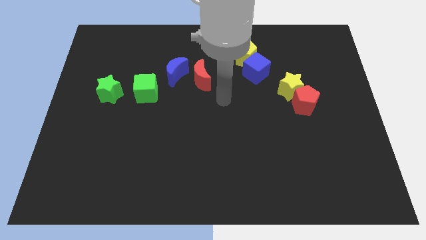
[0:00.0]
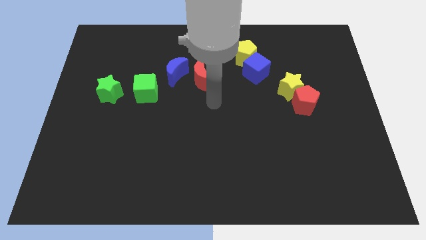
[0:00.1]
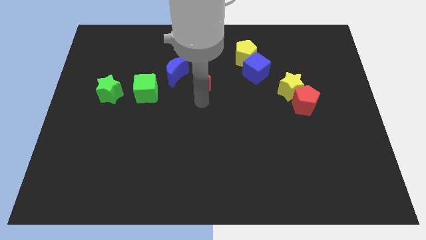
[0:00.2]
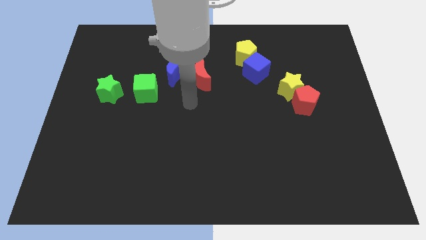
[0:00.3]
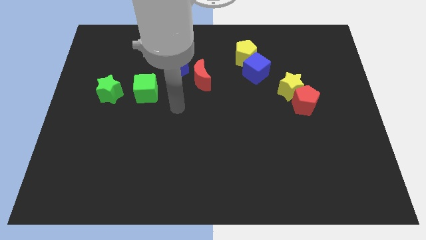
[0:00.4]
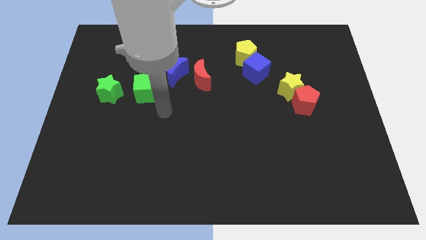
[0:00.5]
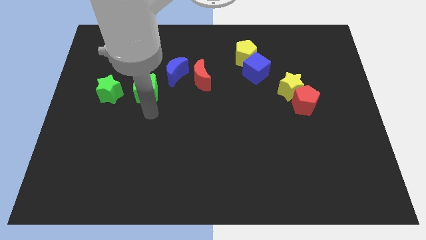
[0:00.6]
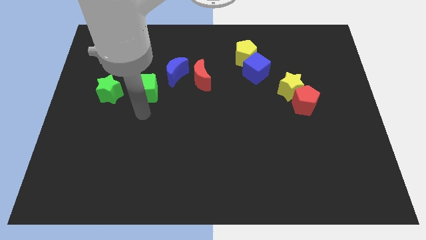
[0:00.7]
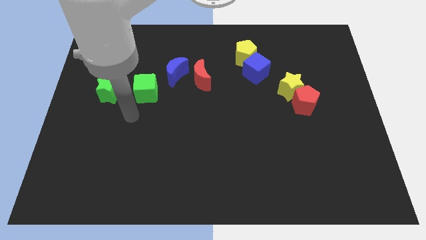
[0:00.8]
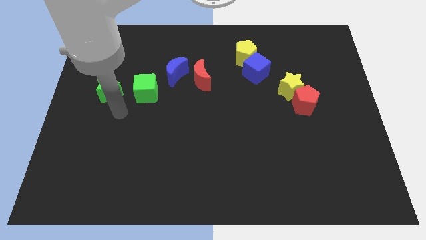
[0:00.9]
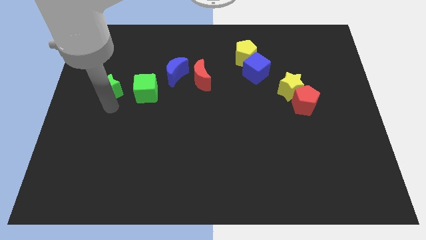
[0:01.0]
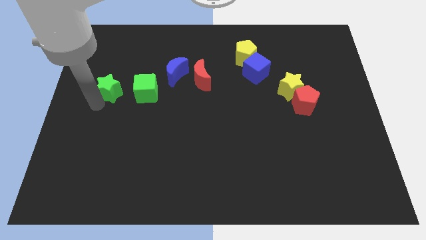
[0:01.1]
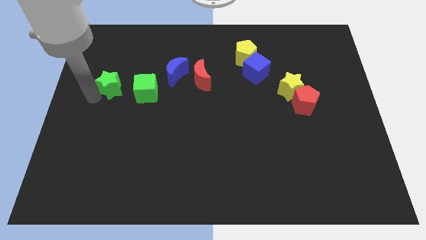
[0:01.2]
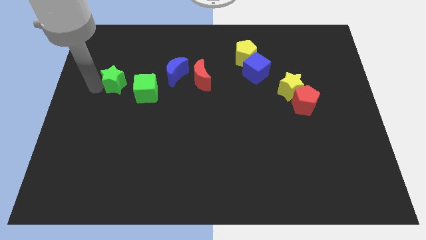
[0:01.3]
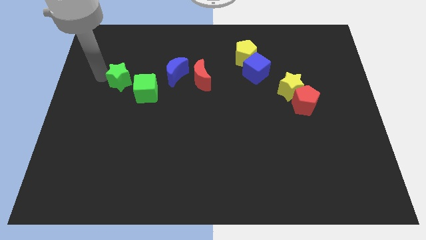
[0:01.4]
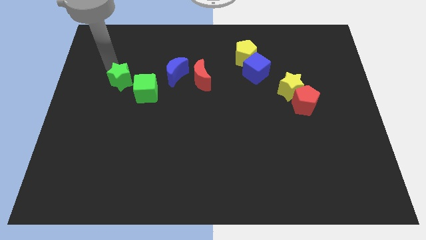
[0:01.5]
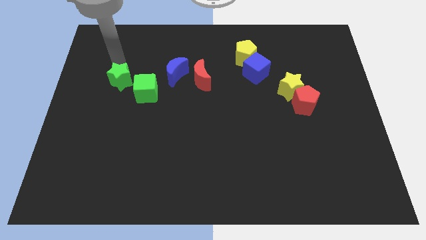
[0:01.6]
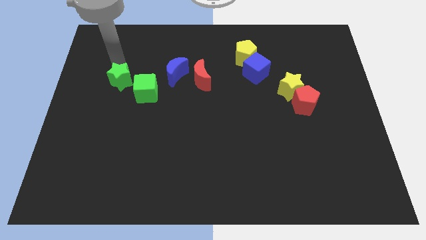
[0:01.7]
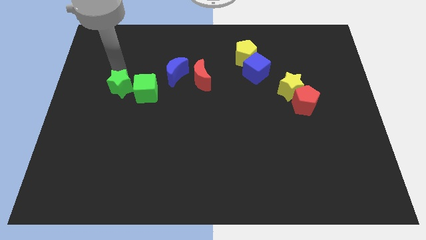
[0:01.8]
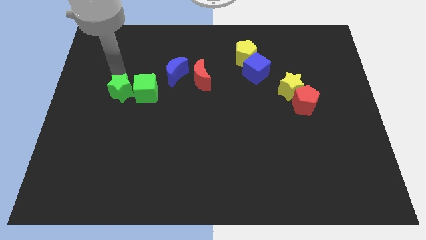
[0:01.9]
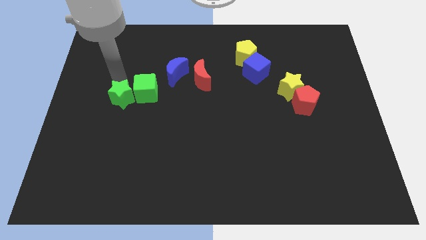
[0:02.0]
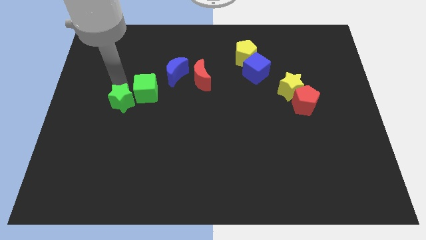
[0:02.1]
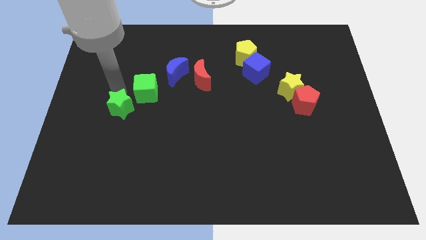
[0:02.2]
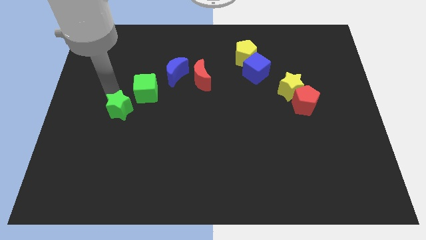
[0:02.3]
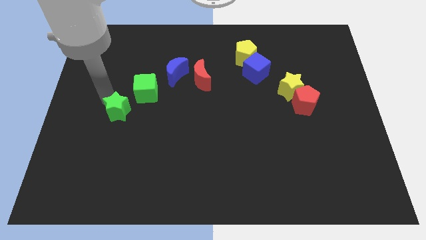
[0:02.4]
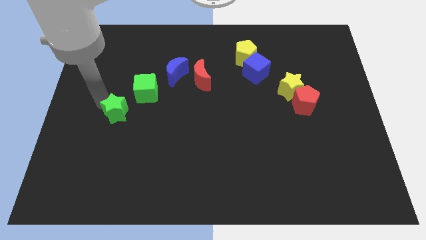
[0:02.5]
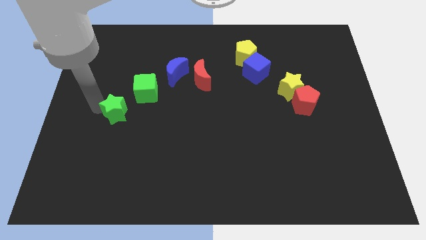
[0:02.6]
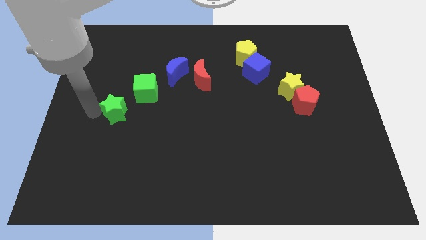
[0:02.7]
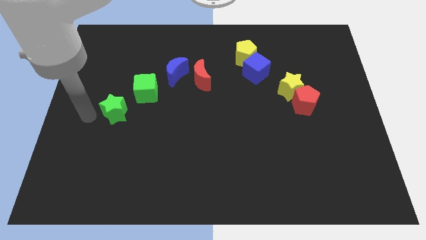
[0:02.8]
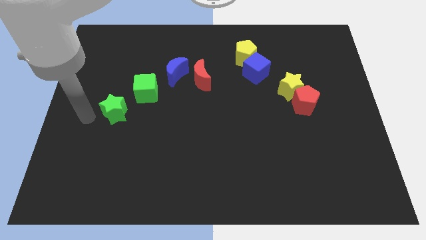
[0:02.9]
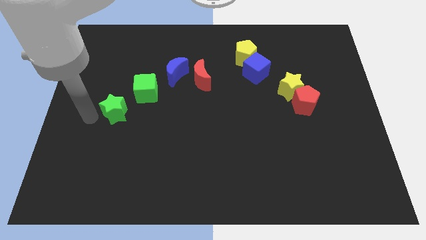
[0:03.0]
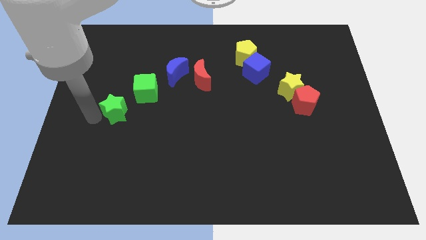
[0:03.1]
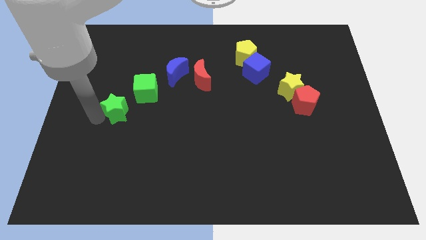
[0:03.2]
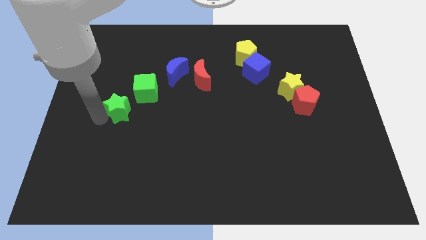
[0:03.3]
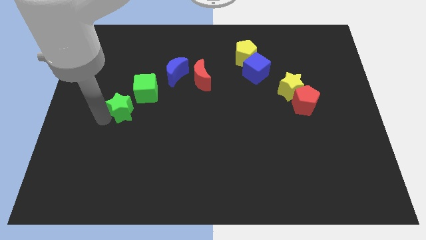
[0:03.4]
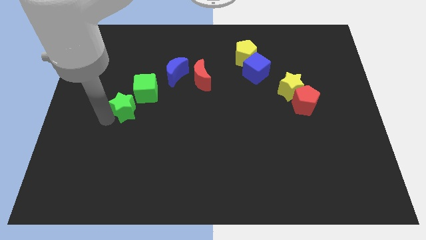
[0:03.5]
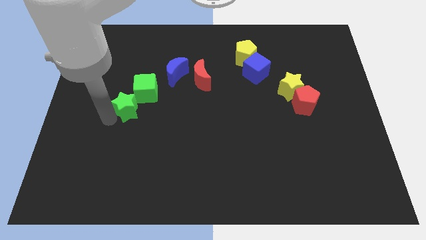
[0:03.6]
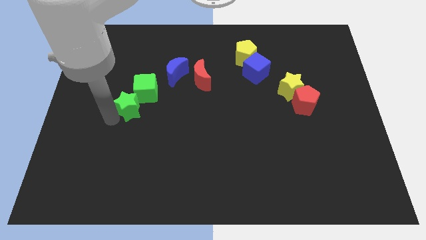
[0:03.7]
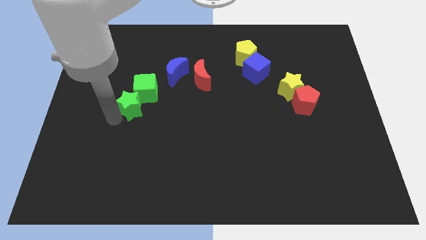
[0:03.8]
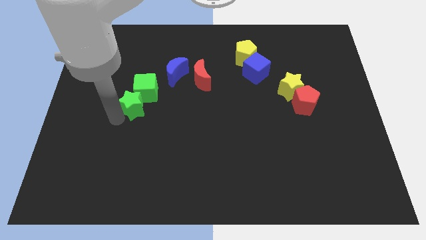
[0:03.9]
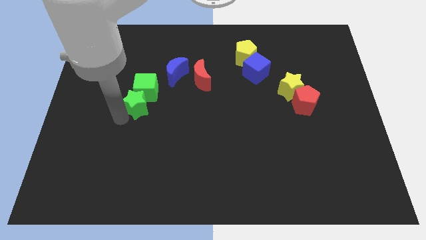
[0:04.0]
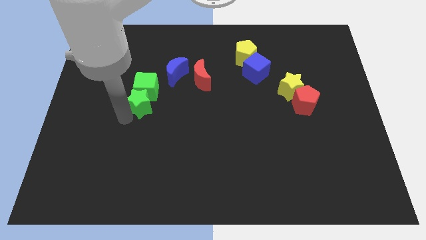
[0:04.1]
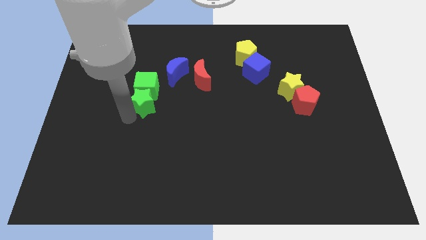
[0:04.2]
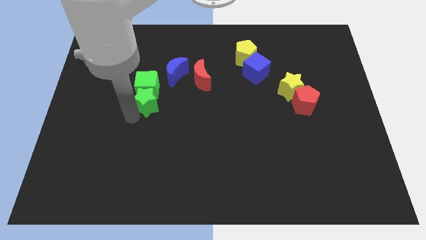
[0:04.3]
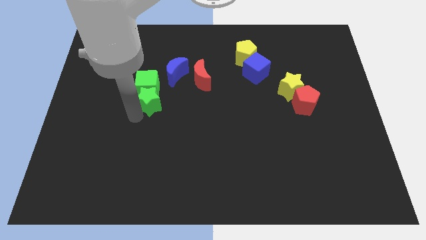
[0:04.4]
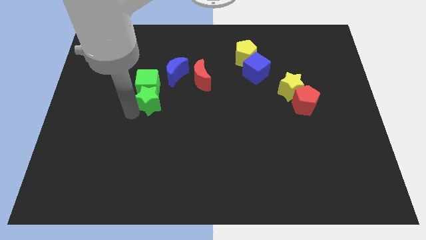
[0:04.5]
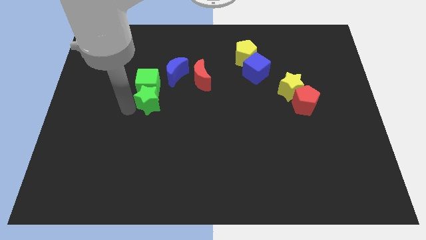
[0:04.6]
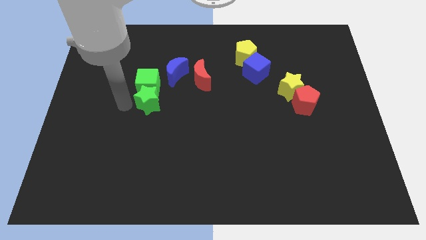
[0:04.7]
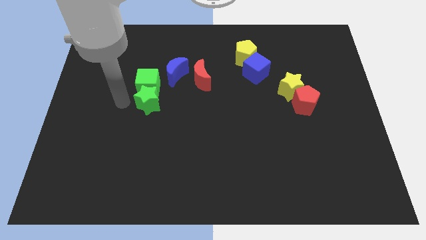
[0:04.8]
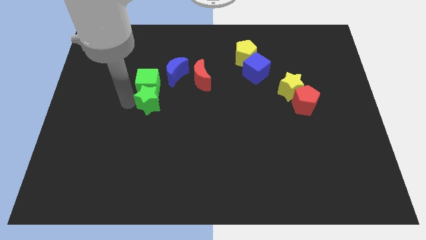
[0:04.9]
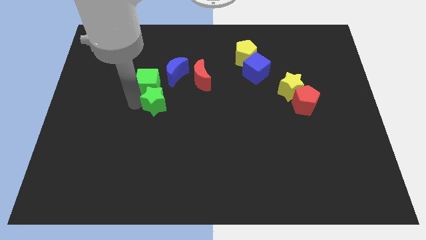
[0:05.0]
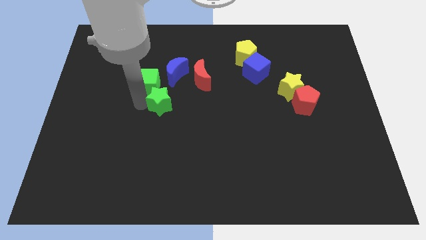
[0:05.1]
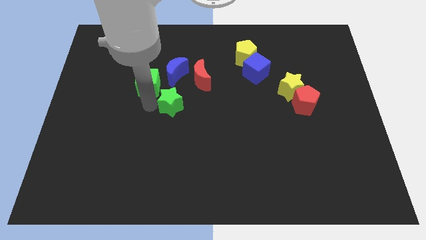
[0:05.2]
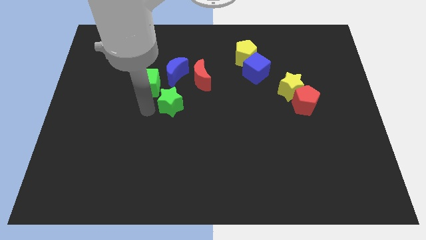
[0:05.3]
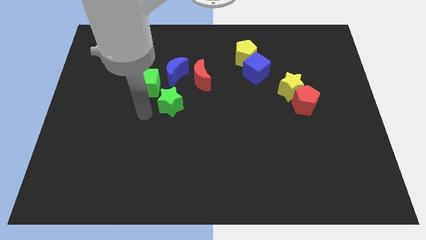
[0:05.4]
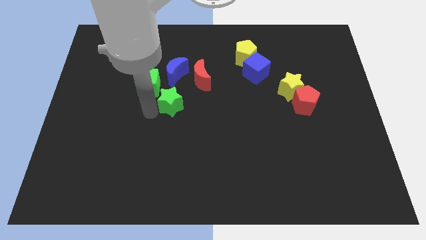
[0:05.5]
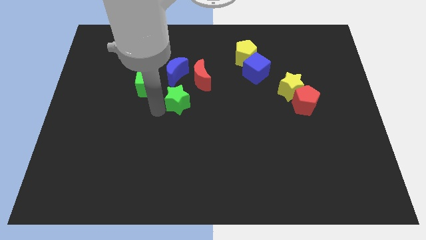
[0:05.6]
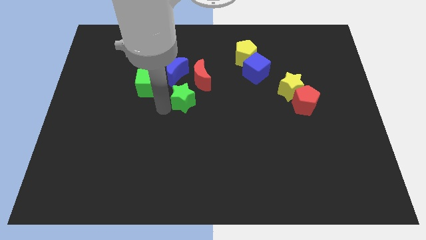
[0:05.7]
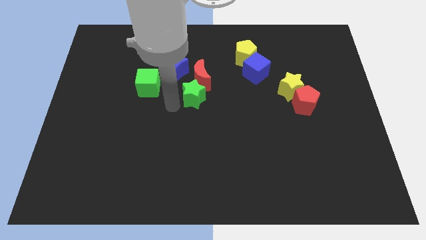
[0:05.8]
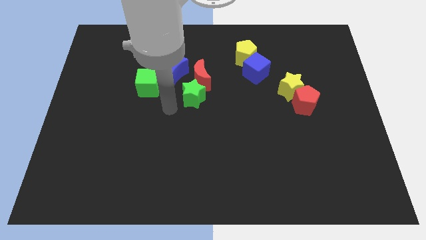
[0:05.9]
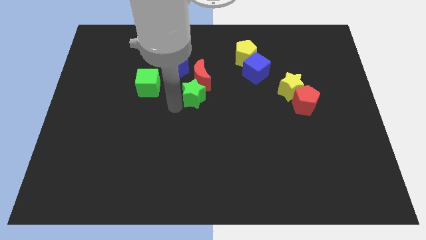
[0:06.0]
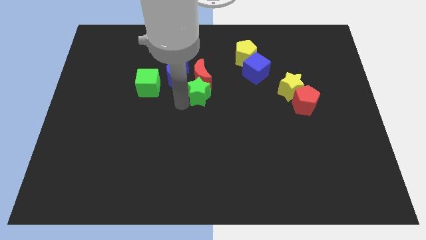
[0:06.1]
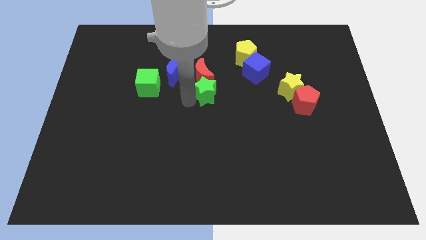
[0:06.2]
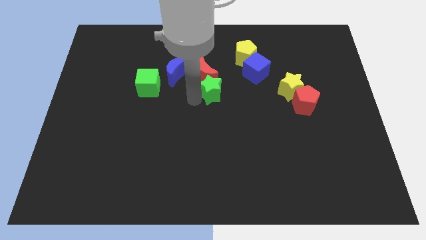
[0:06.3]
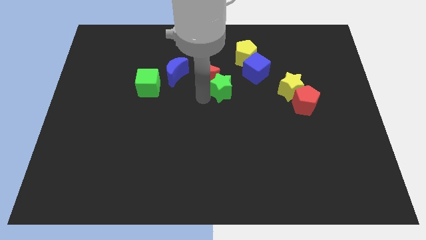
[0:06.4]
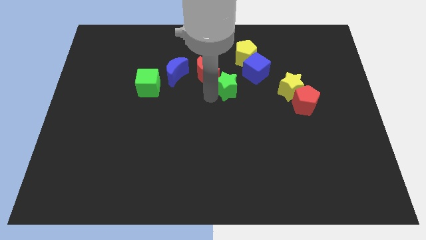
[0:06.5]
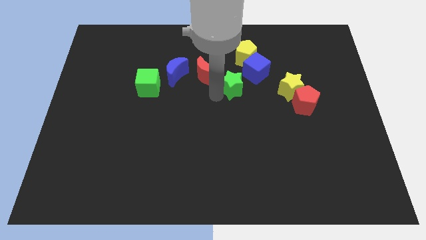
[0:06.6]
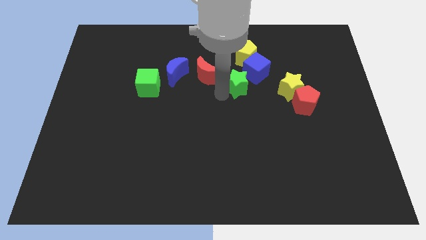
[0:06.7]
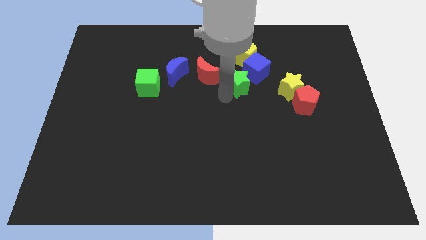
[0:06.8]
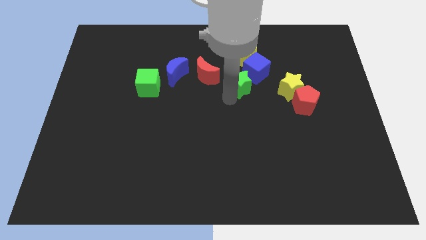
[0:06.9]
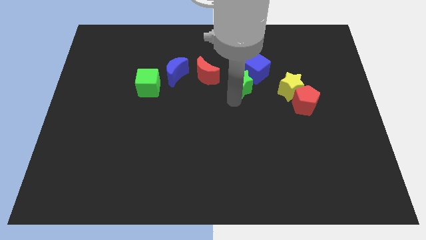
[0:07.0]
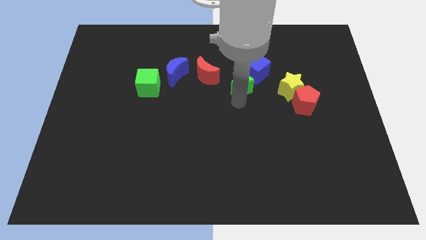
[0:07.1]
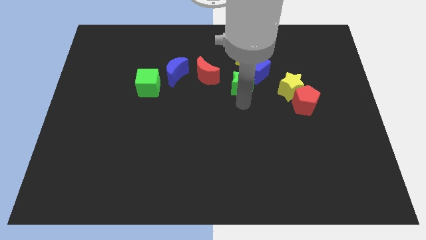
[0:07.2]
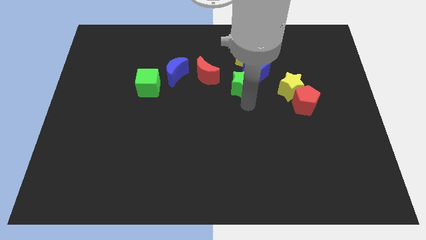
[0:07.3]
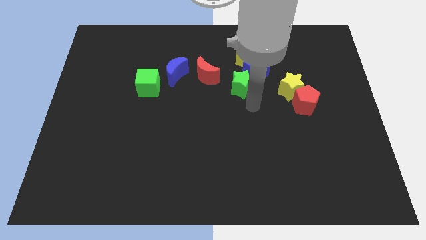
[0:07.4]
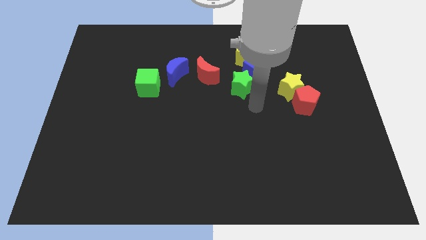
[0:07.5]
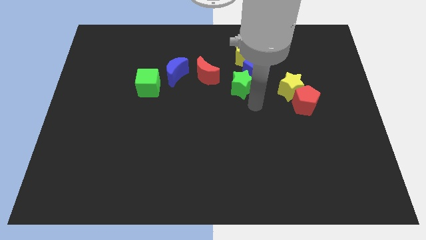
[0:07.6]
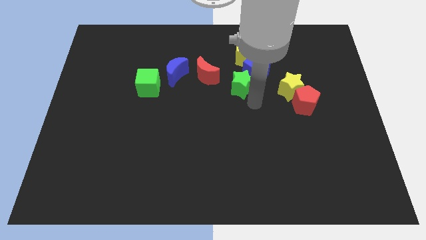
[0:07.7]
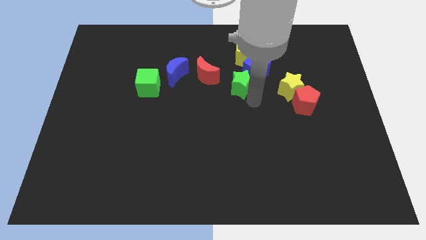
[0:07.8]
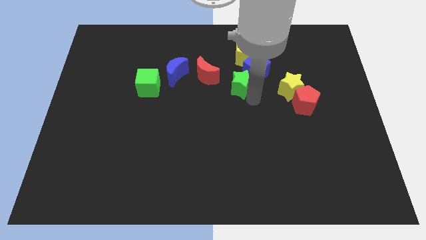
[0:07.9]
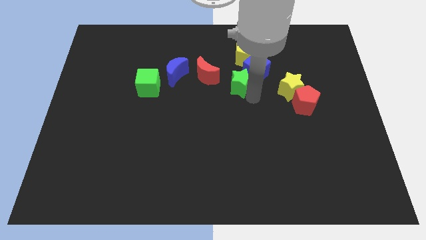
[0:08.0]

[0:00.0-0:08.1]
put the green star towards the blue cube
